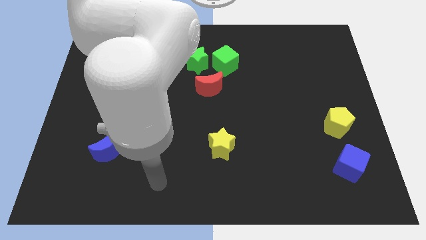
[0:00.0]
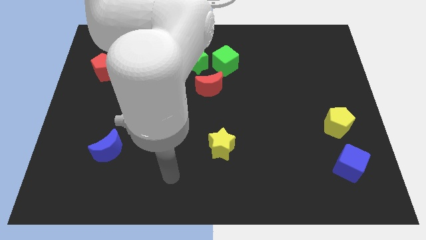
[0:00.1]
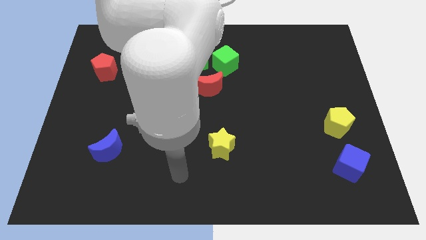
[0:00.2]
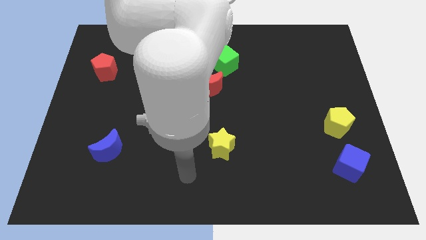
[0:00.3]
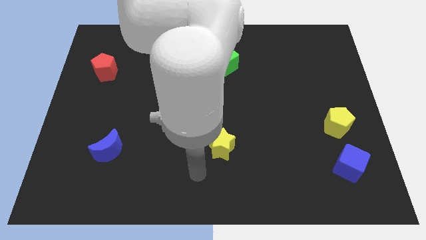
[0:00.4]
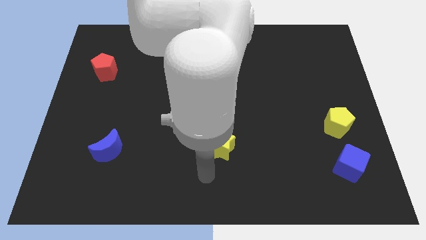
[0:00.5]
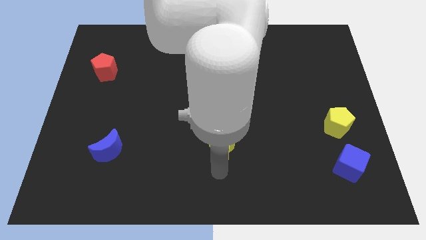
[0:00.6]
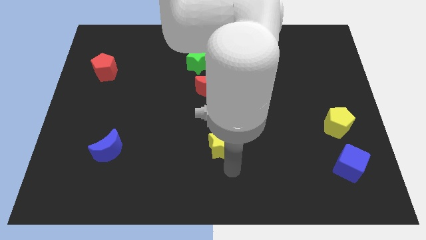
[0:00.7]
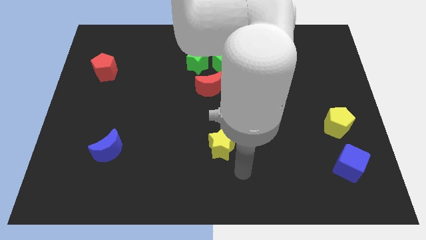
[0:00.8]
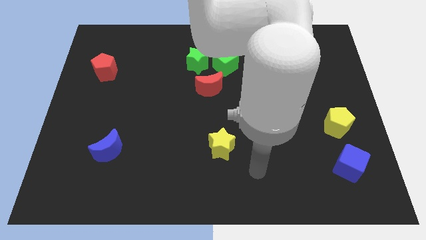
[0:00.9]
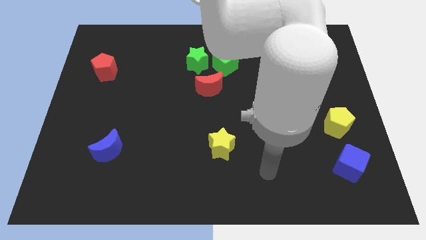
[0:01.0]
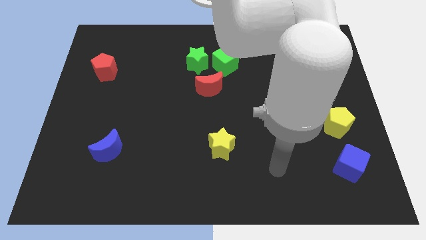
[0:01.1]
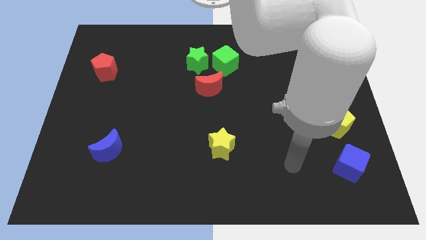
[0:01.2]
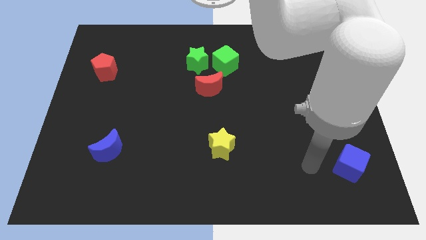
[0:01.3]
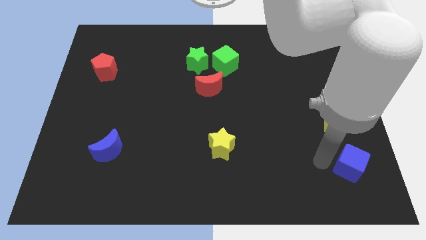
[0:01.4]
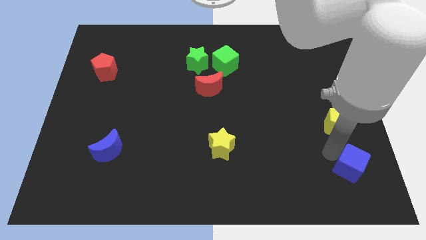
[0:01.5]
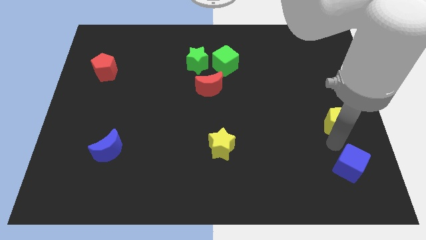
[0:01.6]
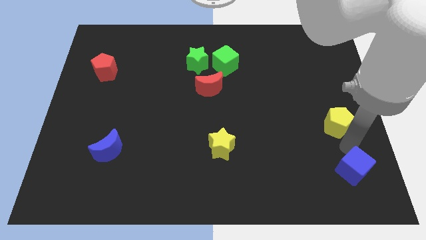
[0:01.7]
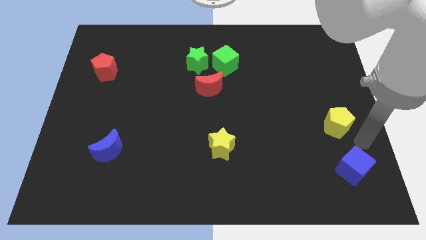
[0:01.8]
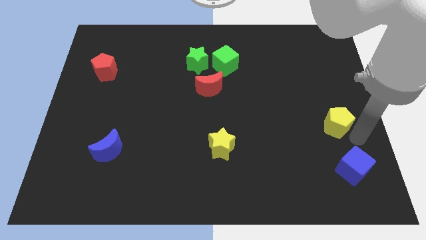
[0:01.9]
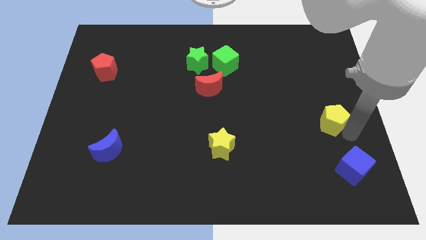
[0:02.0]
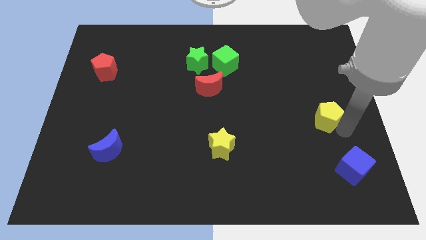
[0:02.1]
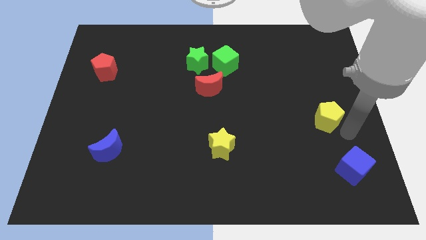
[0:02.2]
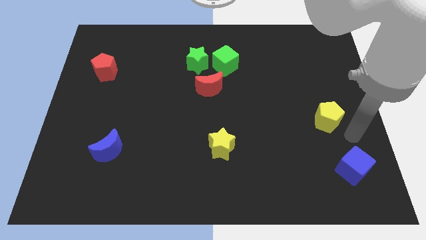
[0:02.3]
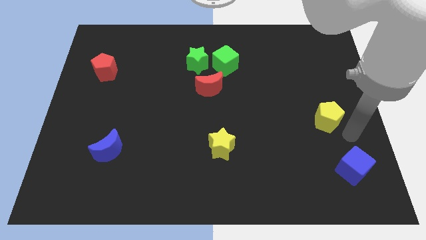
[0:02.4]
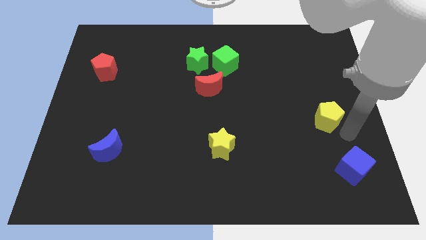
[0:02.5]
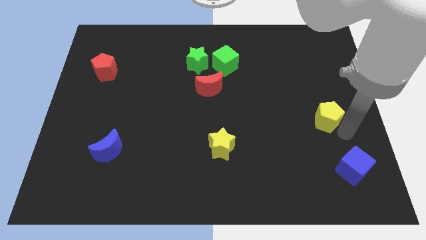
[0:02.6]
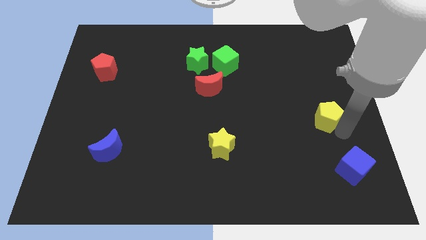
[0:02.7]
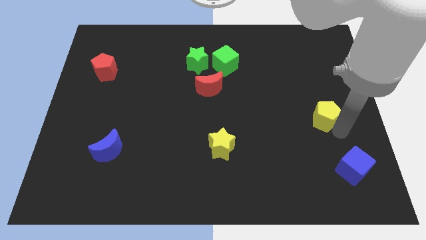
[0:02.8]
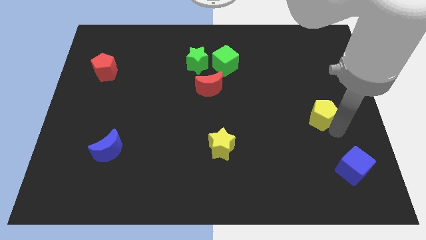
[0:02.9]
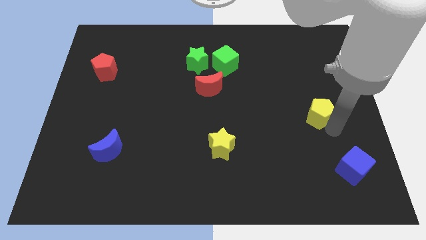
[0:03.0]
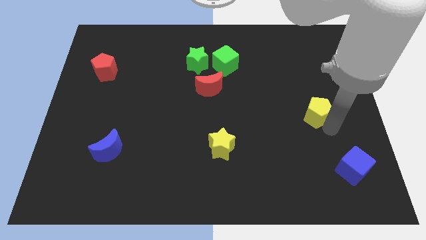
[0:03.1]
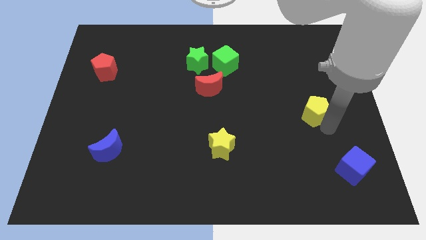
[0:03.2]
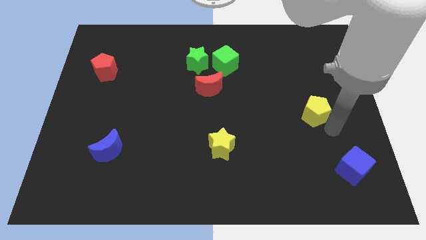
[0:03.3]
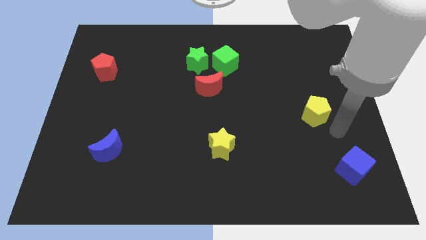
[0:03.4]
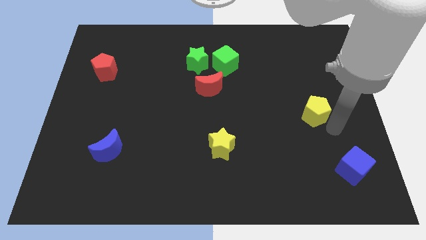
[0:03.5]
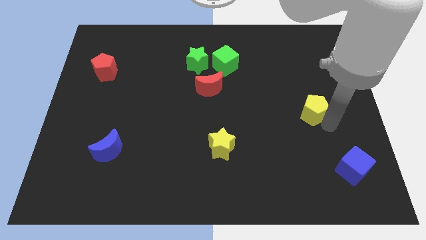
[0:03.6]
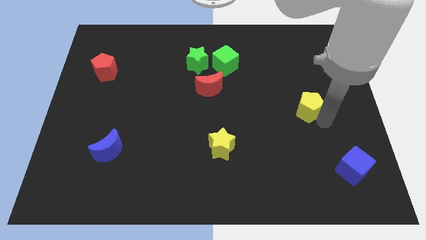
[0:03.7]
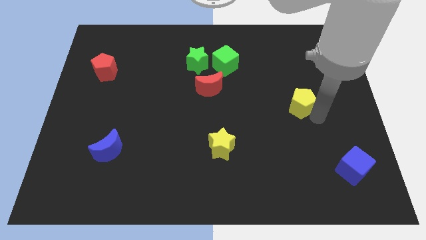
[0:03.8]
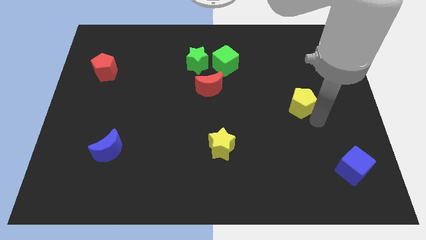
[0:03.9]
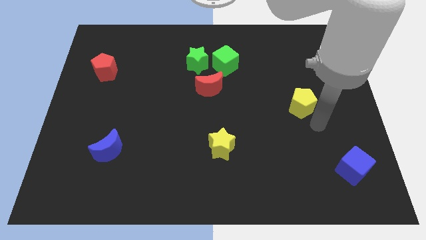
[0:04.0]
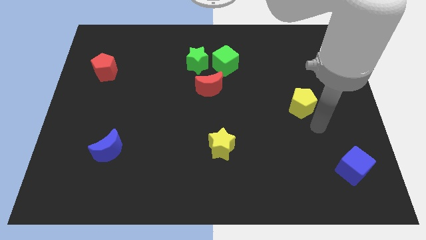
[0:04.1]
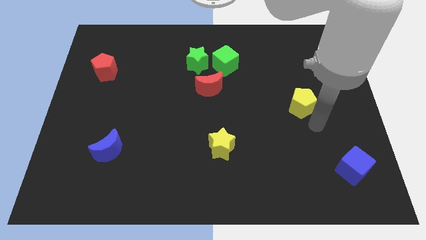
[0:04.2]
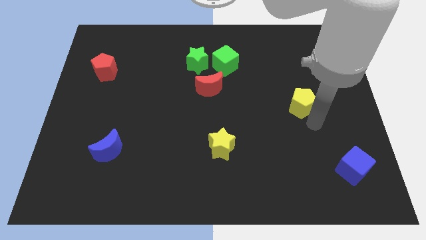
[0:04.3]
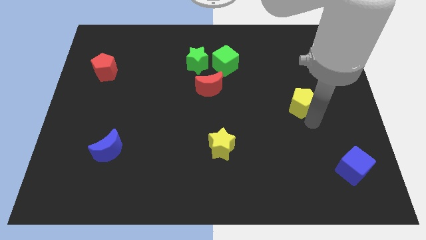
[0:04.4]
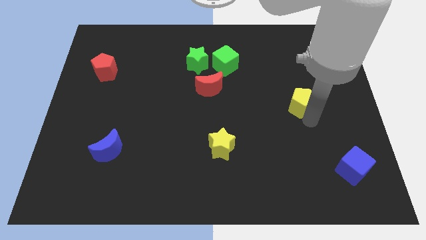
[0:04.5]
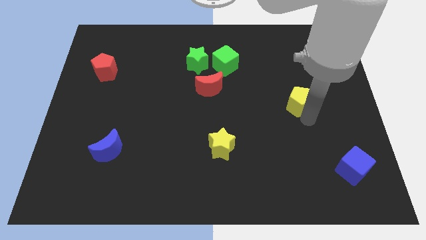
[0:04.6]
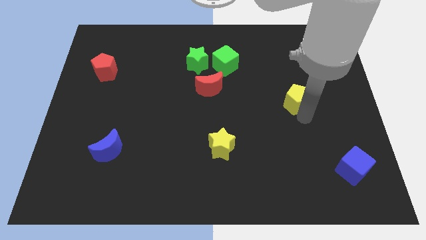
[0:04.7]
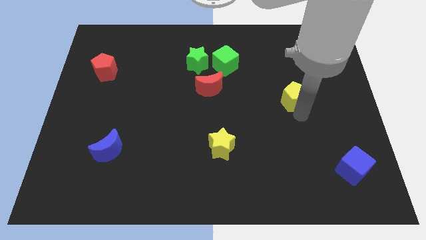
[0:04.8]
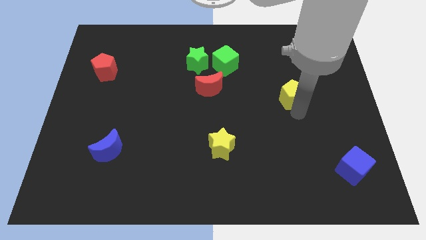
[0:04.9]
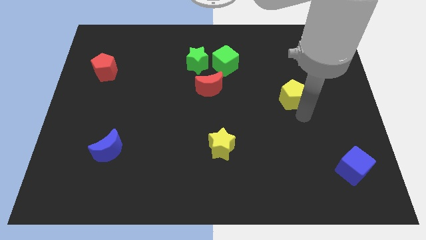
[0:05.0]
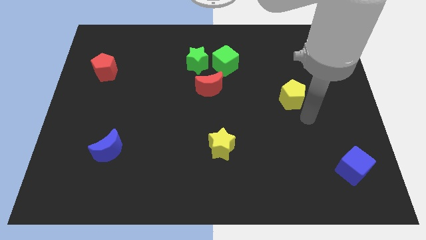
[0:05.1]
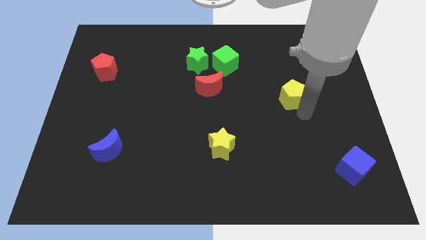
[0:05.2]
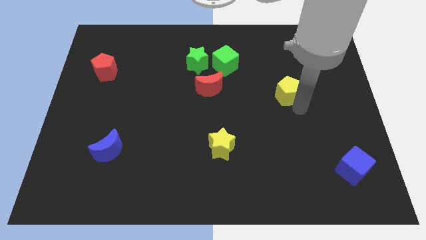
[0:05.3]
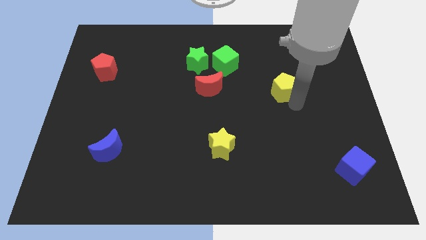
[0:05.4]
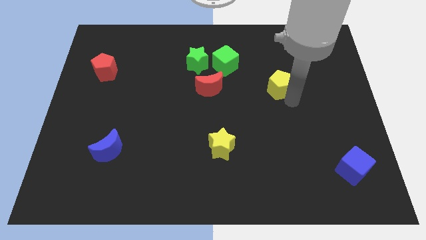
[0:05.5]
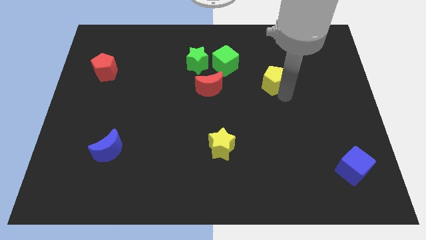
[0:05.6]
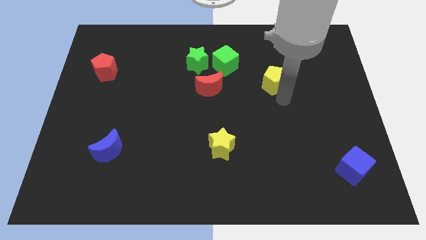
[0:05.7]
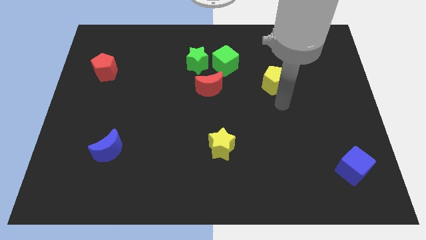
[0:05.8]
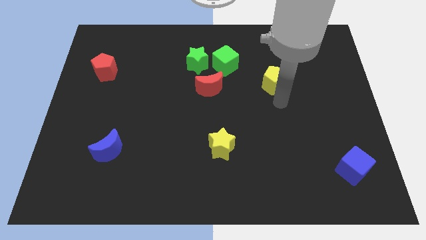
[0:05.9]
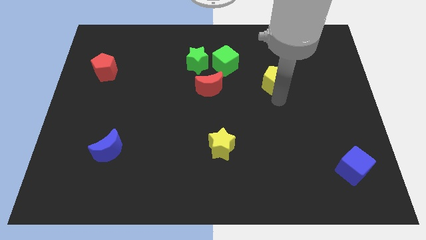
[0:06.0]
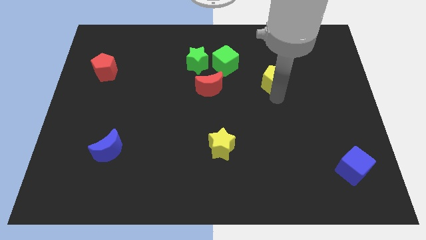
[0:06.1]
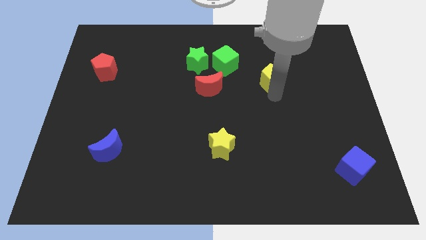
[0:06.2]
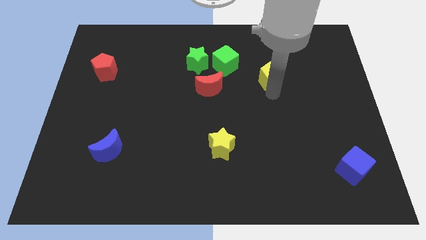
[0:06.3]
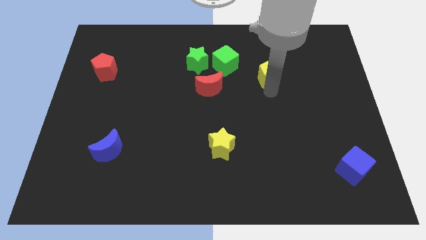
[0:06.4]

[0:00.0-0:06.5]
slide the yellow pentagon to the right side of the green cube
